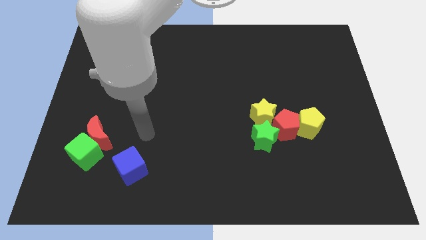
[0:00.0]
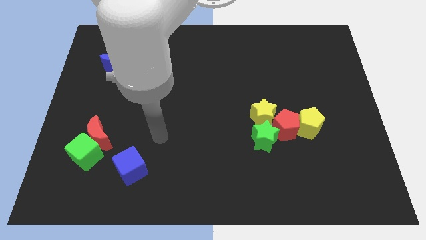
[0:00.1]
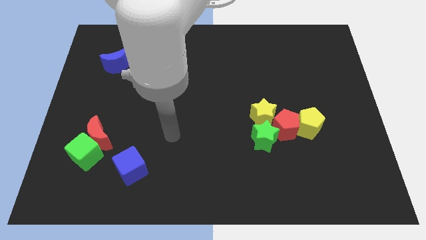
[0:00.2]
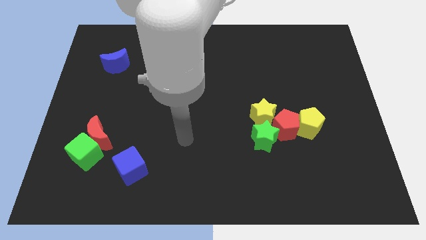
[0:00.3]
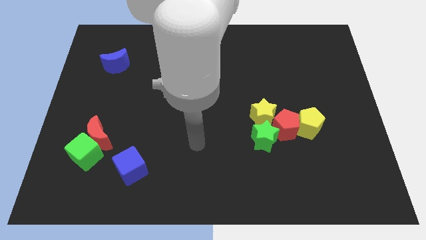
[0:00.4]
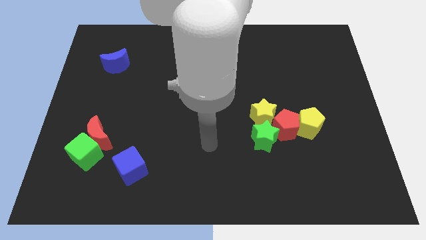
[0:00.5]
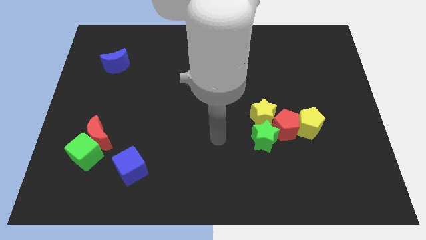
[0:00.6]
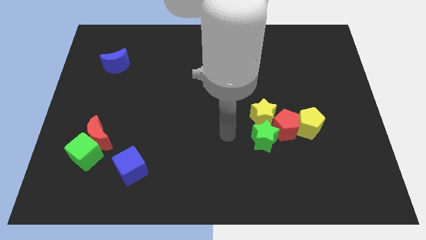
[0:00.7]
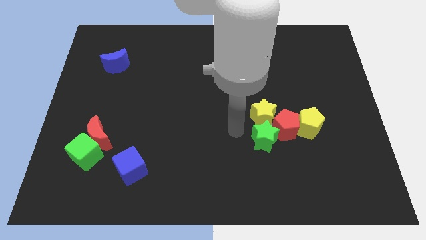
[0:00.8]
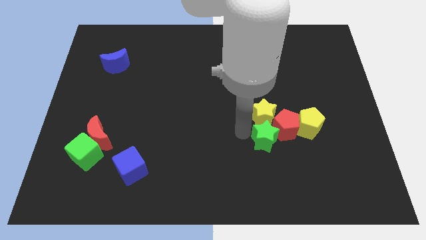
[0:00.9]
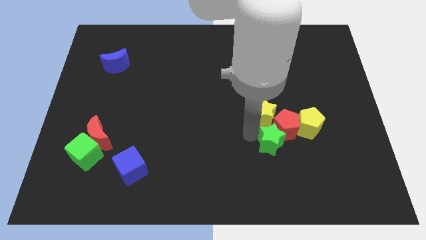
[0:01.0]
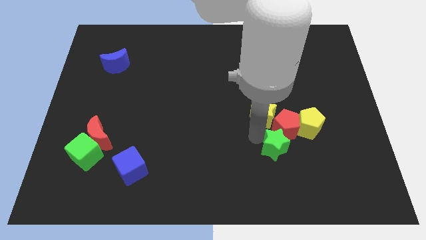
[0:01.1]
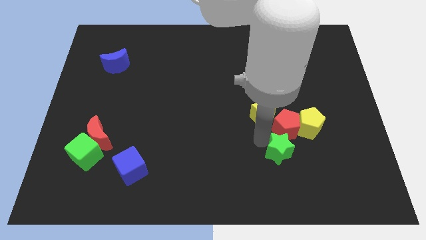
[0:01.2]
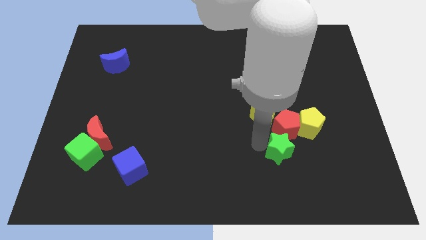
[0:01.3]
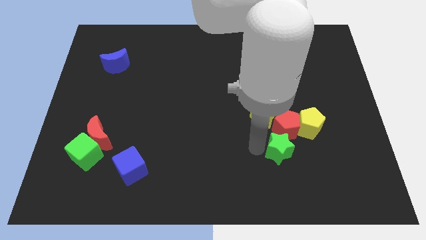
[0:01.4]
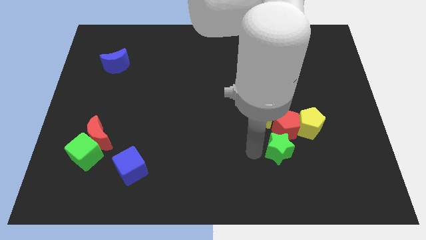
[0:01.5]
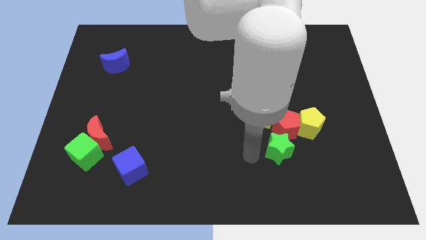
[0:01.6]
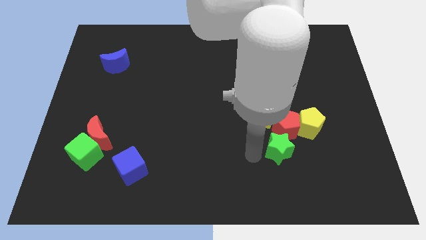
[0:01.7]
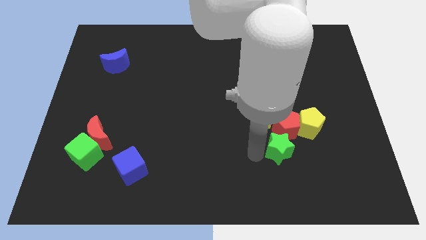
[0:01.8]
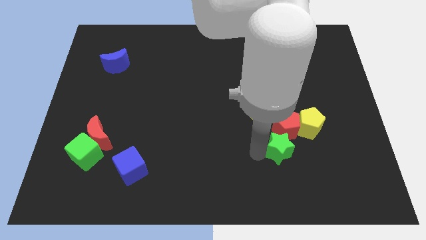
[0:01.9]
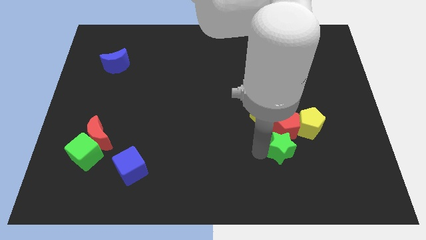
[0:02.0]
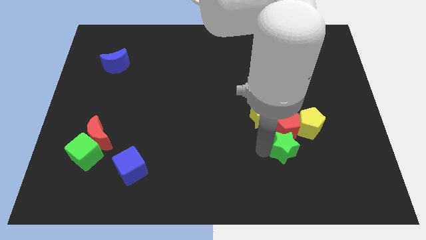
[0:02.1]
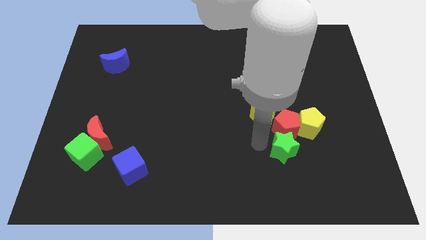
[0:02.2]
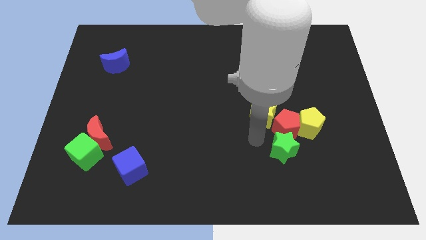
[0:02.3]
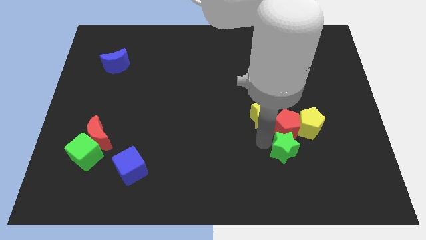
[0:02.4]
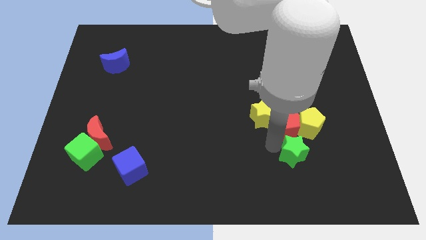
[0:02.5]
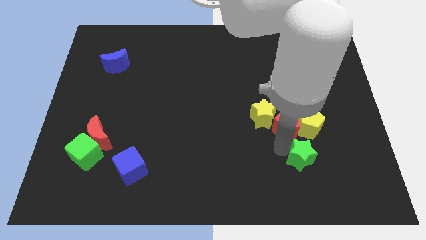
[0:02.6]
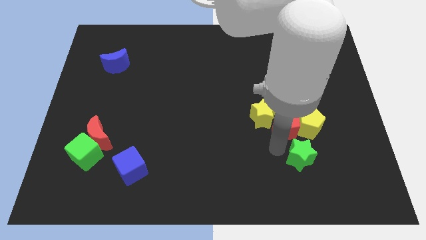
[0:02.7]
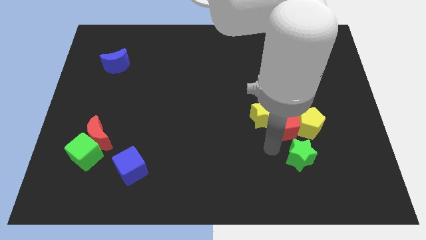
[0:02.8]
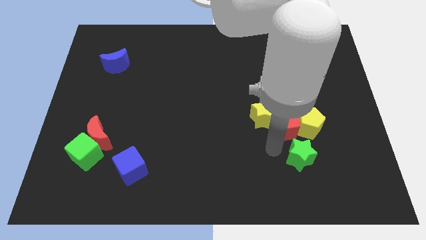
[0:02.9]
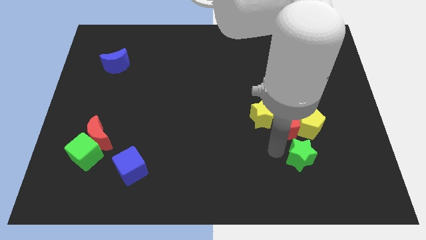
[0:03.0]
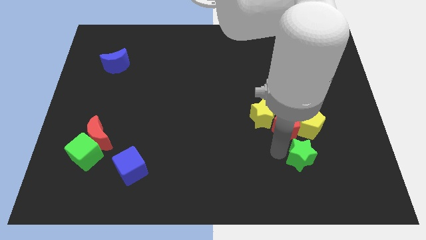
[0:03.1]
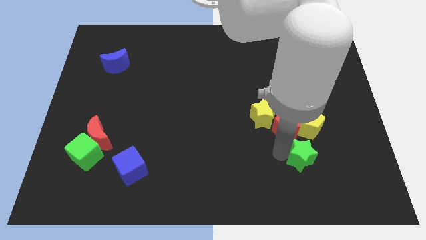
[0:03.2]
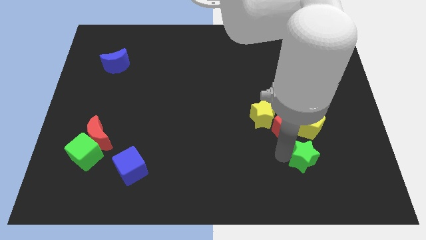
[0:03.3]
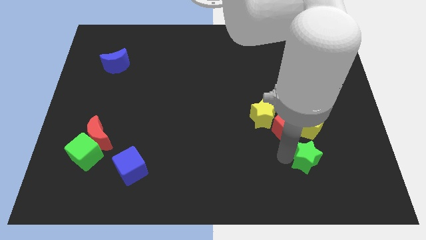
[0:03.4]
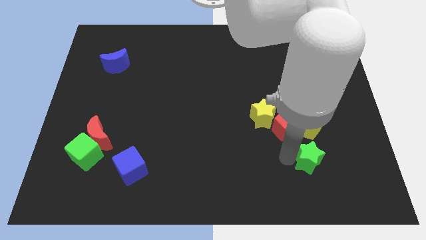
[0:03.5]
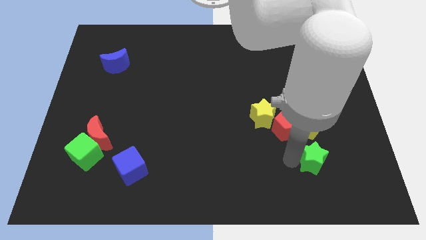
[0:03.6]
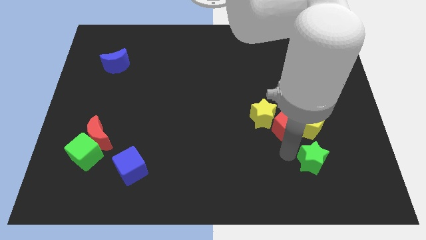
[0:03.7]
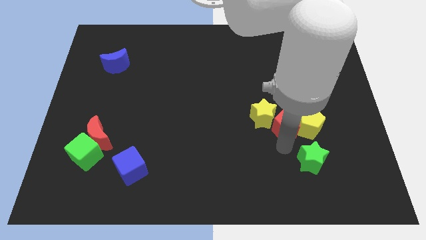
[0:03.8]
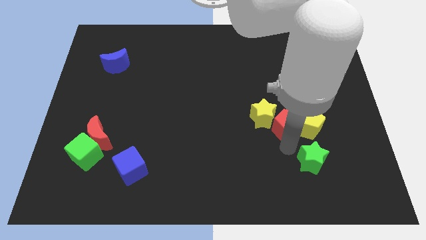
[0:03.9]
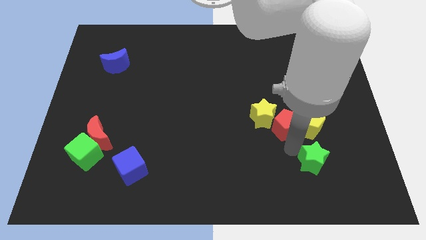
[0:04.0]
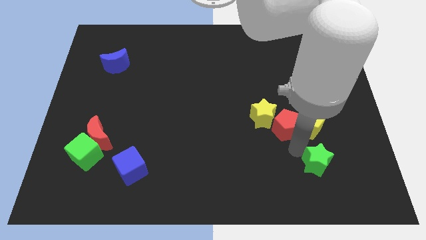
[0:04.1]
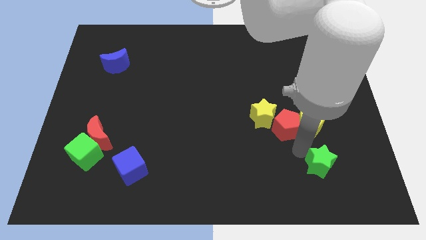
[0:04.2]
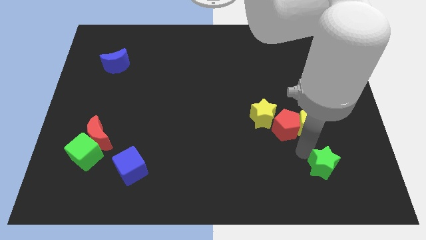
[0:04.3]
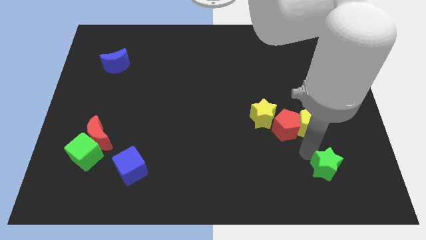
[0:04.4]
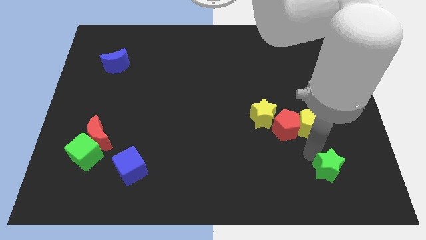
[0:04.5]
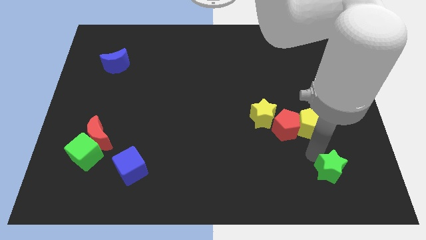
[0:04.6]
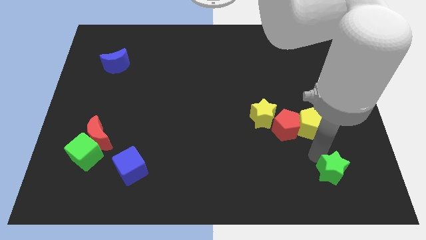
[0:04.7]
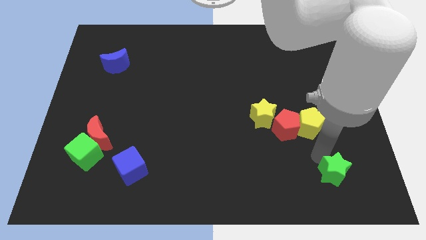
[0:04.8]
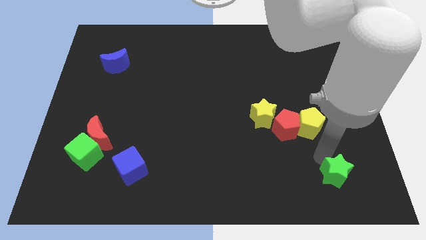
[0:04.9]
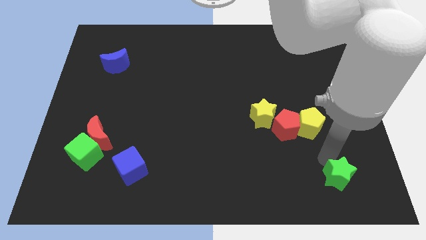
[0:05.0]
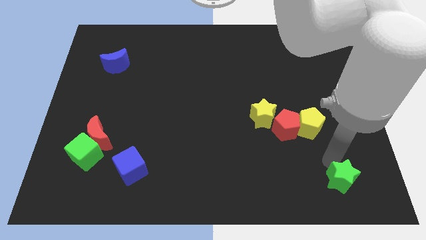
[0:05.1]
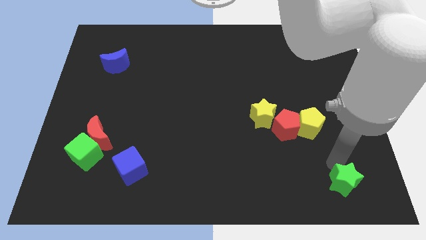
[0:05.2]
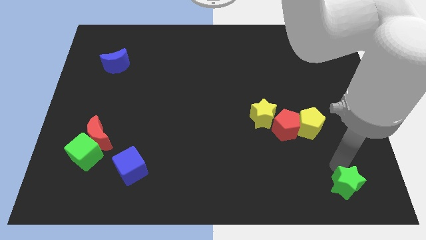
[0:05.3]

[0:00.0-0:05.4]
put the green star to the lower right corner

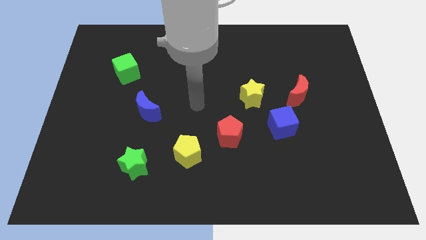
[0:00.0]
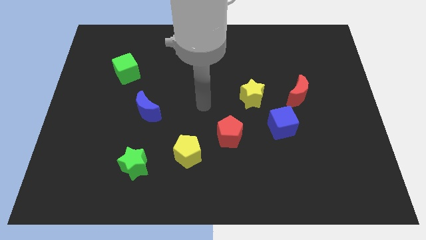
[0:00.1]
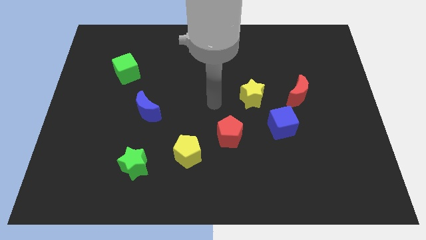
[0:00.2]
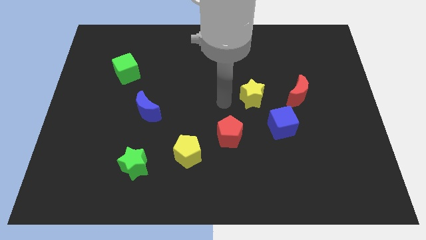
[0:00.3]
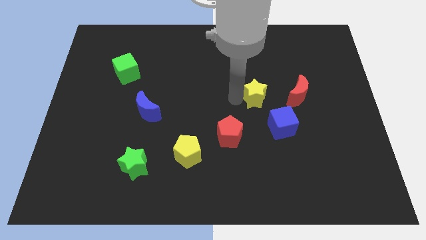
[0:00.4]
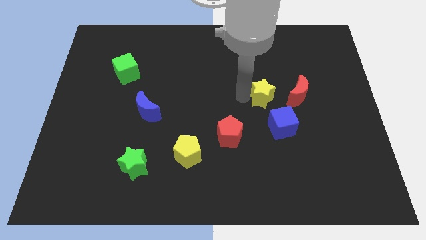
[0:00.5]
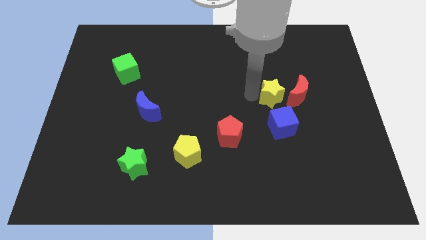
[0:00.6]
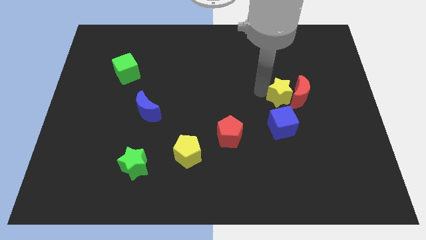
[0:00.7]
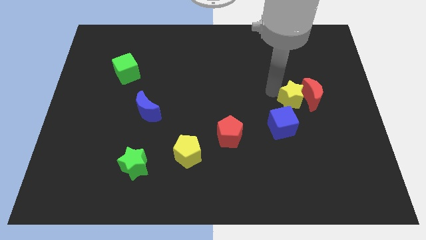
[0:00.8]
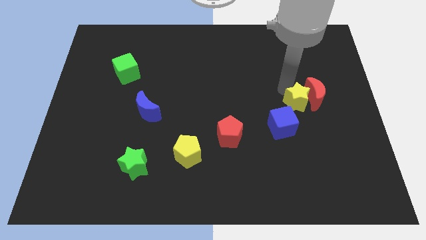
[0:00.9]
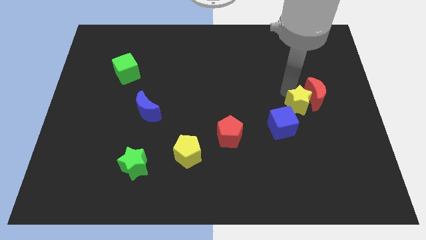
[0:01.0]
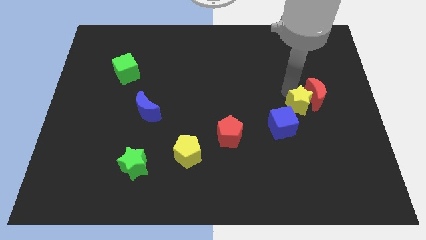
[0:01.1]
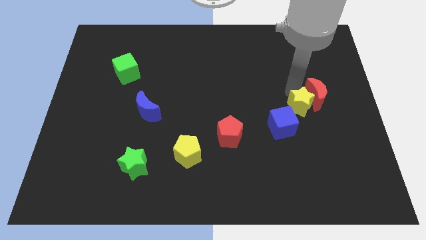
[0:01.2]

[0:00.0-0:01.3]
put the red moon to the right side of the board

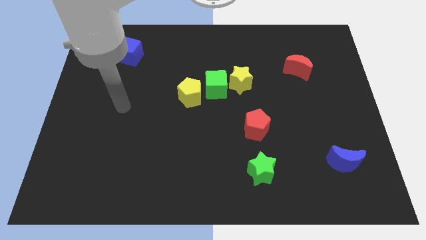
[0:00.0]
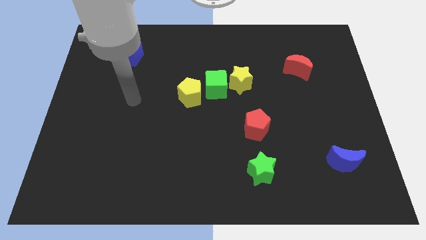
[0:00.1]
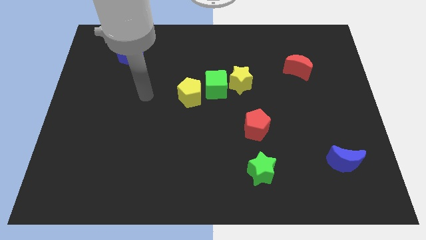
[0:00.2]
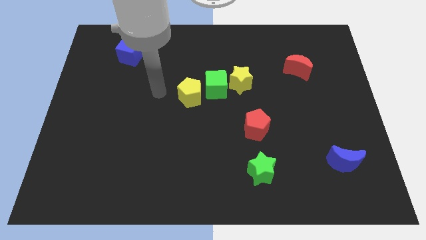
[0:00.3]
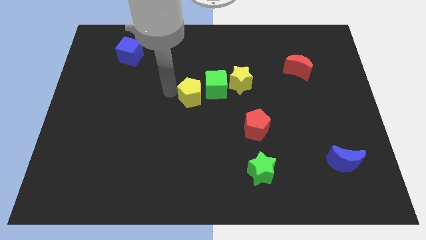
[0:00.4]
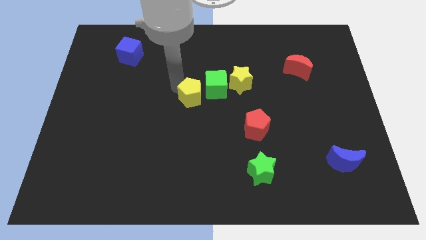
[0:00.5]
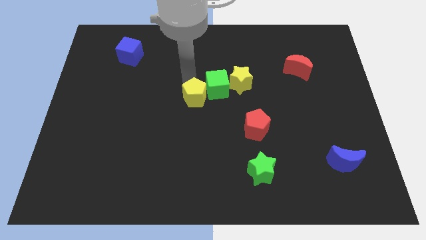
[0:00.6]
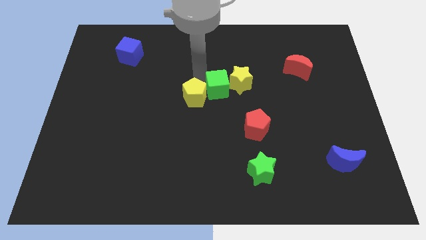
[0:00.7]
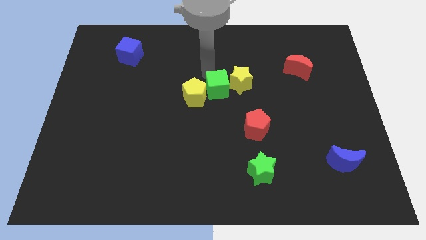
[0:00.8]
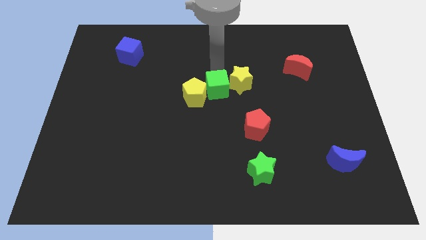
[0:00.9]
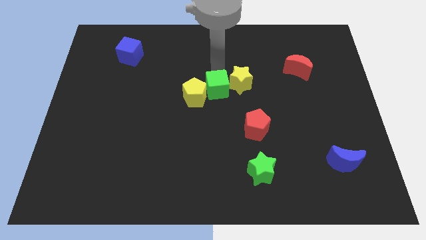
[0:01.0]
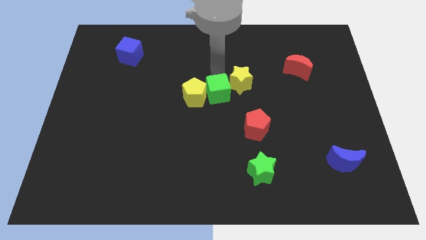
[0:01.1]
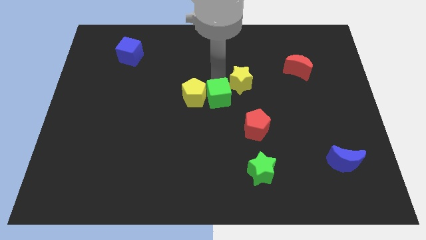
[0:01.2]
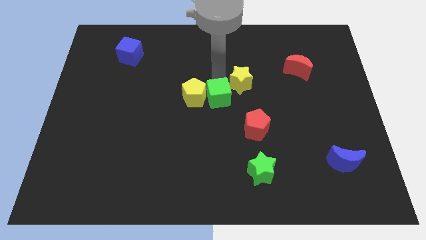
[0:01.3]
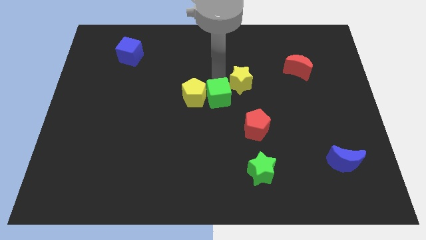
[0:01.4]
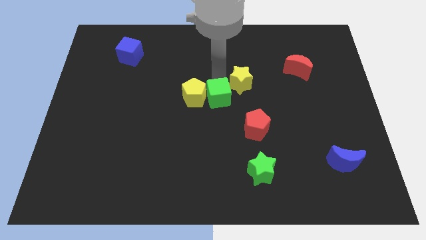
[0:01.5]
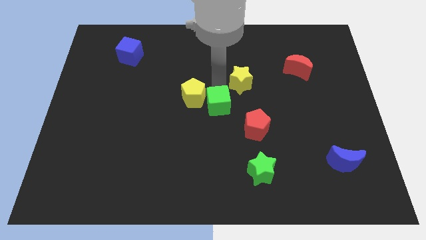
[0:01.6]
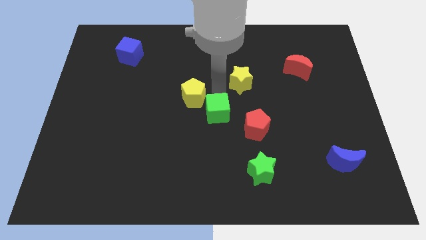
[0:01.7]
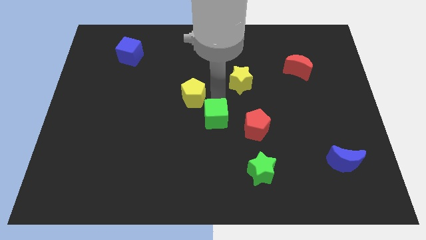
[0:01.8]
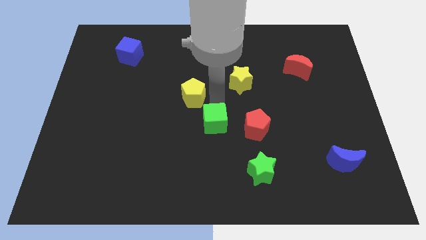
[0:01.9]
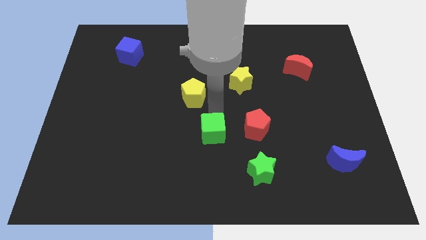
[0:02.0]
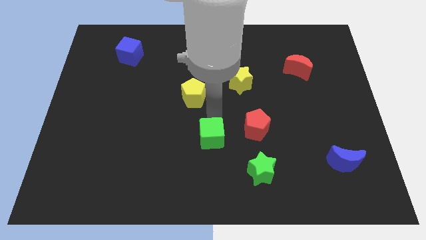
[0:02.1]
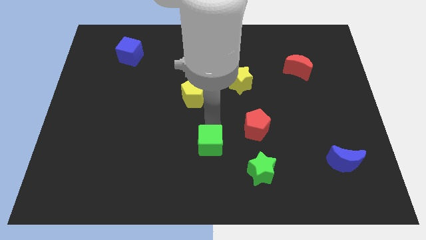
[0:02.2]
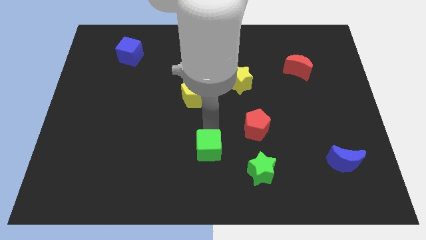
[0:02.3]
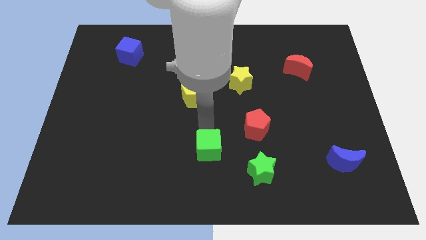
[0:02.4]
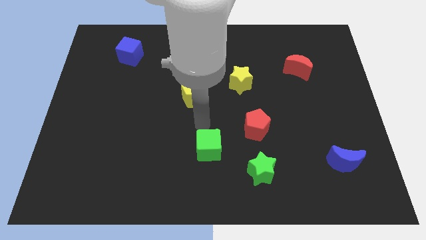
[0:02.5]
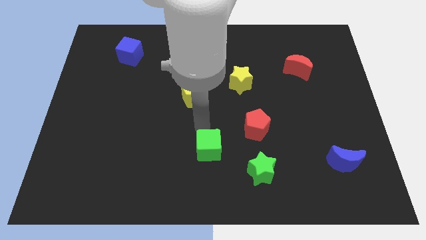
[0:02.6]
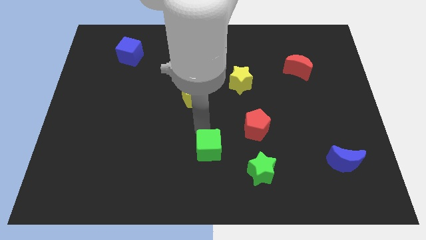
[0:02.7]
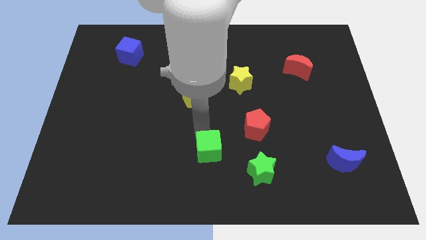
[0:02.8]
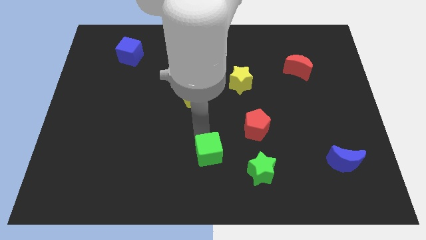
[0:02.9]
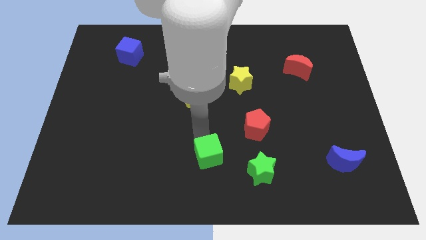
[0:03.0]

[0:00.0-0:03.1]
move the green cube to the bottom
